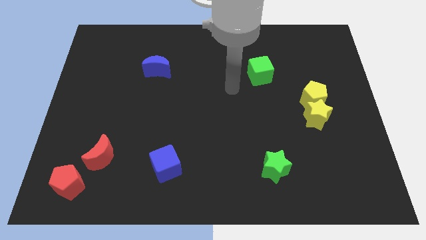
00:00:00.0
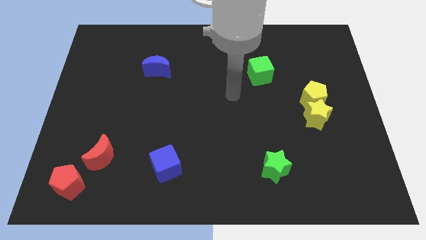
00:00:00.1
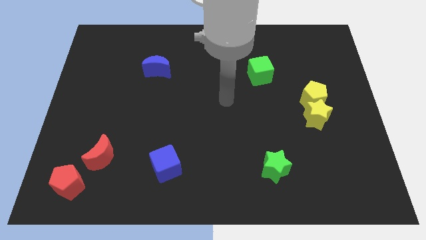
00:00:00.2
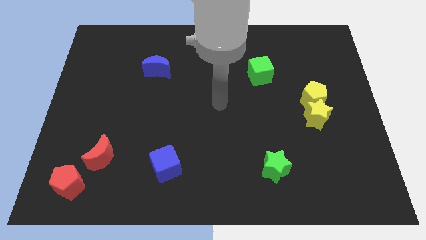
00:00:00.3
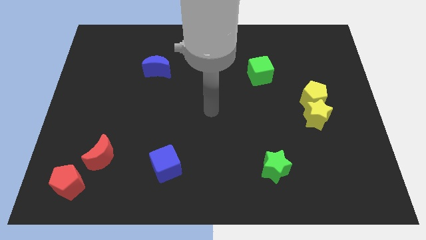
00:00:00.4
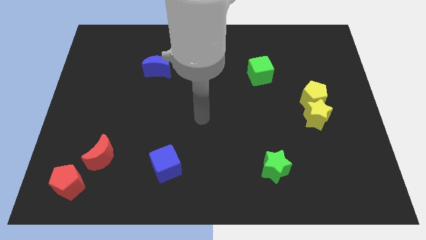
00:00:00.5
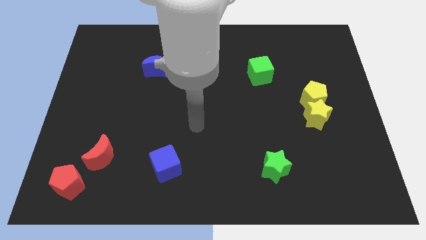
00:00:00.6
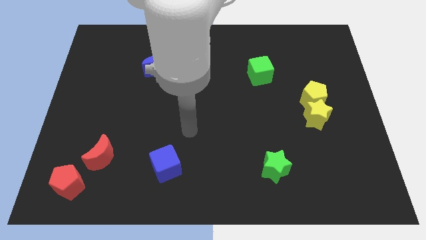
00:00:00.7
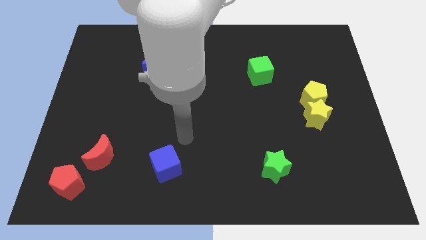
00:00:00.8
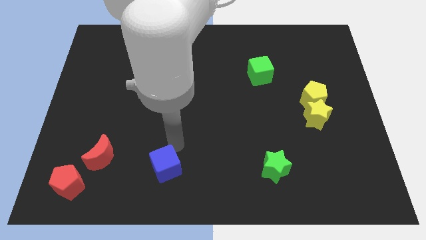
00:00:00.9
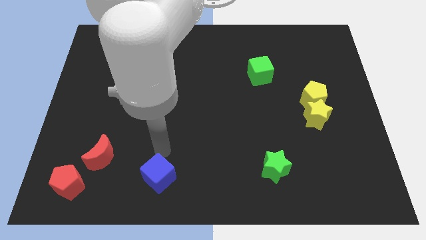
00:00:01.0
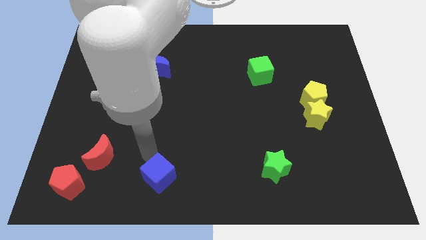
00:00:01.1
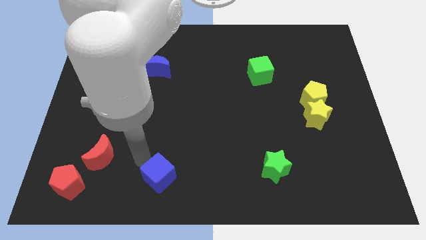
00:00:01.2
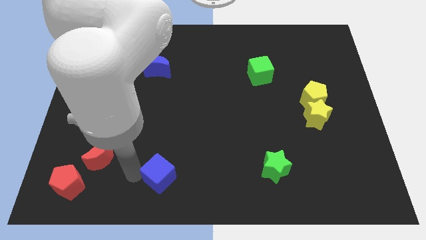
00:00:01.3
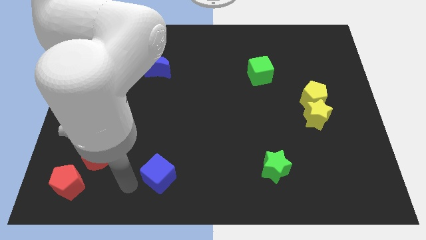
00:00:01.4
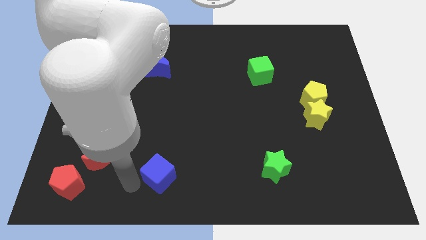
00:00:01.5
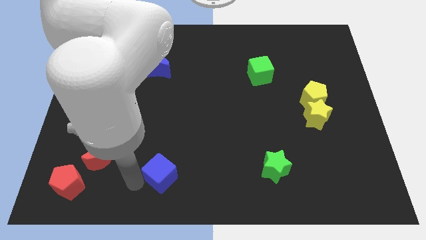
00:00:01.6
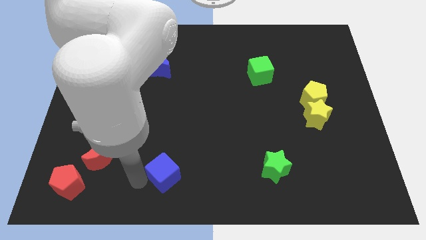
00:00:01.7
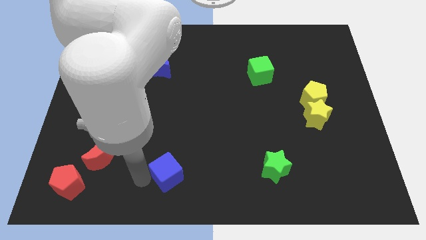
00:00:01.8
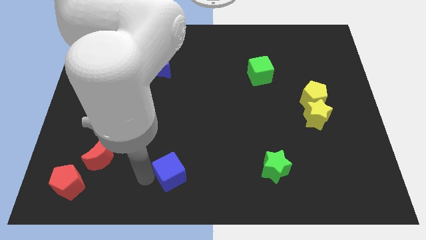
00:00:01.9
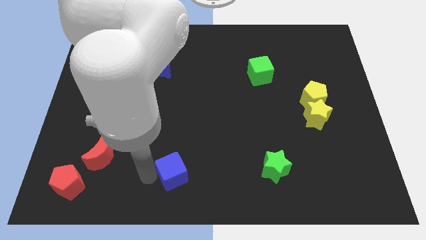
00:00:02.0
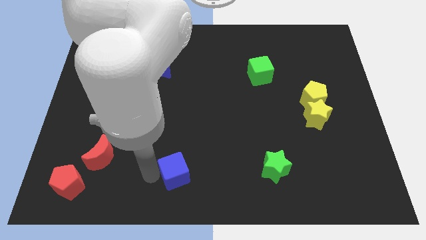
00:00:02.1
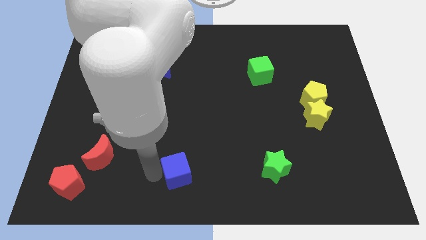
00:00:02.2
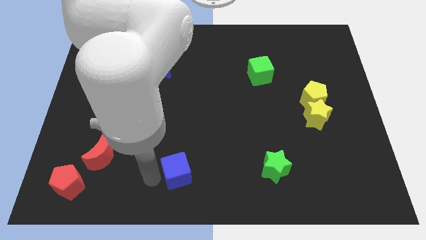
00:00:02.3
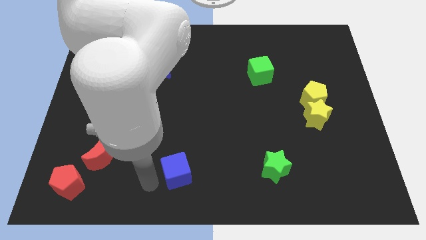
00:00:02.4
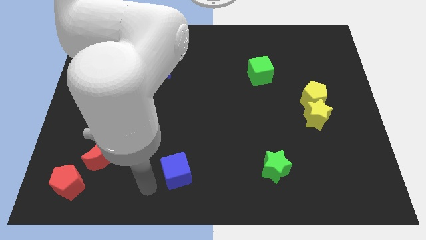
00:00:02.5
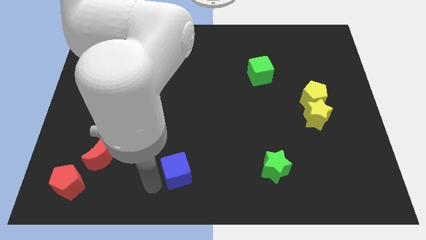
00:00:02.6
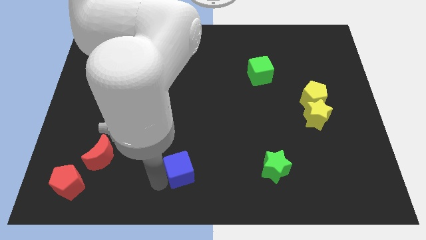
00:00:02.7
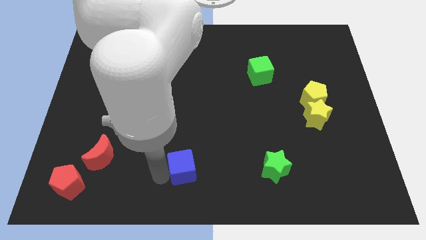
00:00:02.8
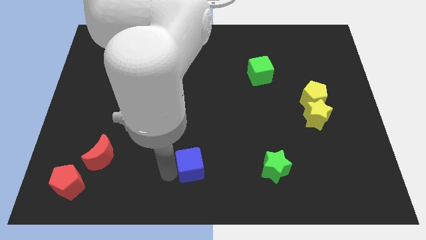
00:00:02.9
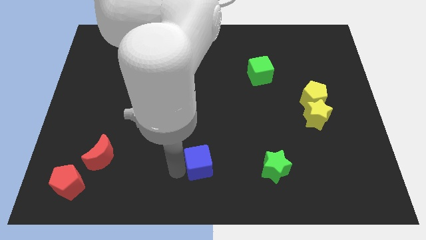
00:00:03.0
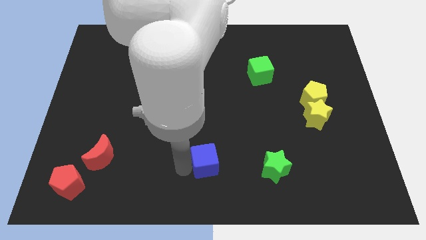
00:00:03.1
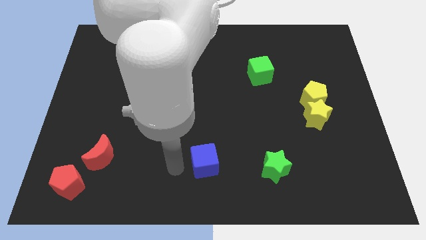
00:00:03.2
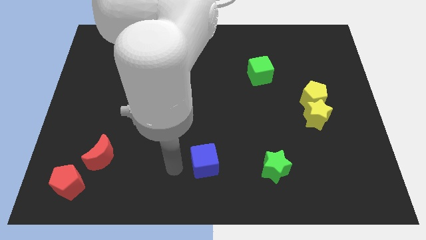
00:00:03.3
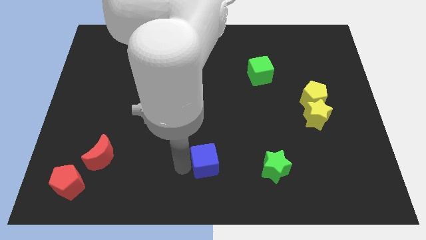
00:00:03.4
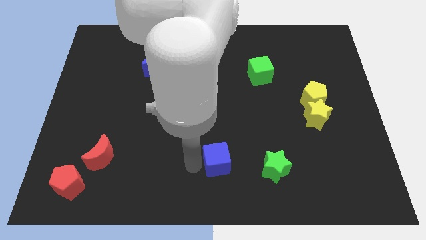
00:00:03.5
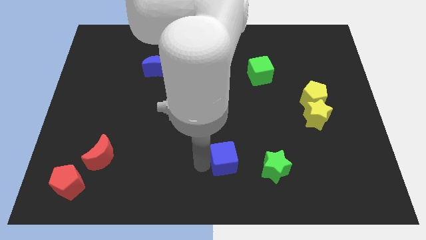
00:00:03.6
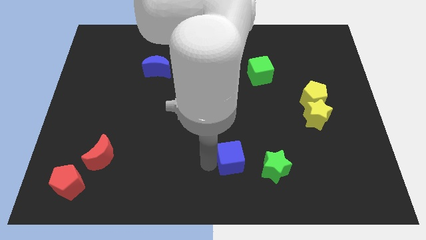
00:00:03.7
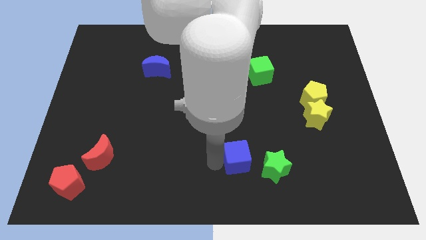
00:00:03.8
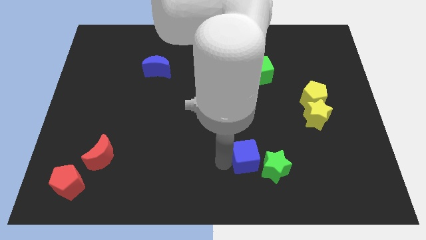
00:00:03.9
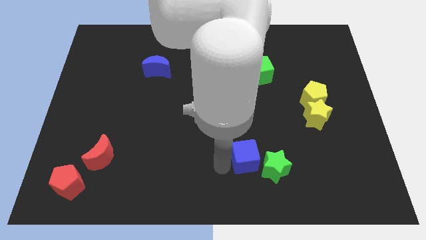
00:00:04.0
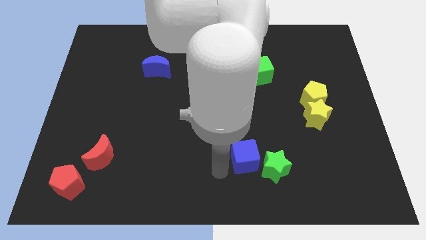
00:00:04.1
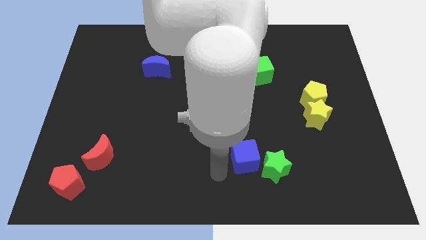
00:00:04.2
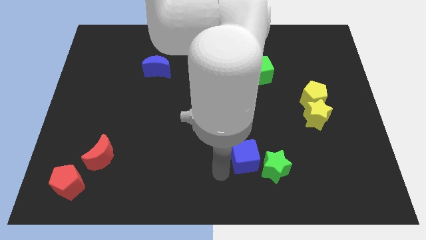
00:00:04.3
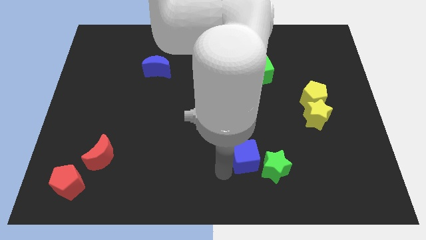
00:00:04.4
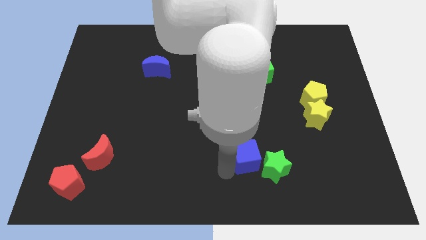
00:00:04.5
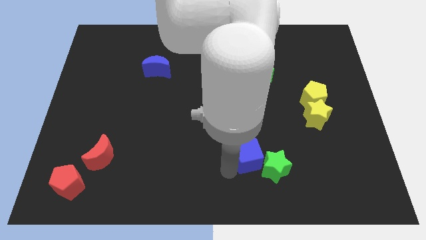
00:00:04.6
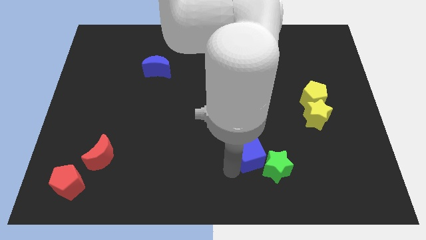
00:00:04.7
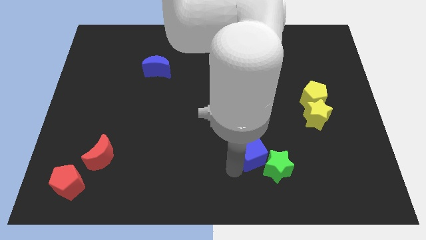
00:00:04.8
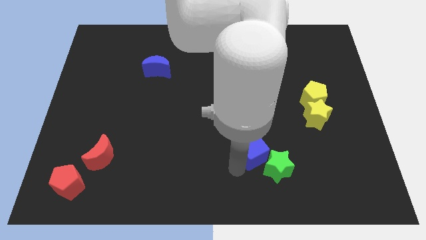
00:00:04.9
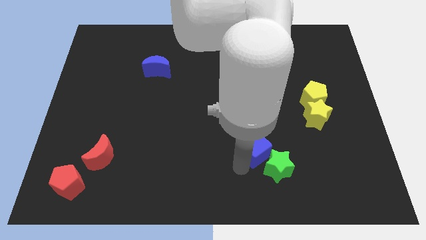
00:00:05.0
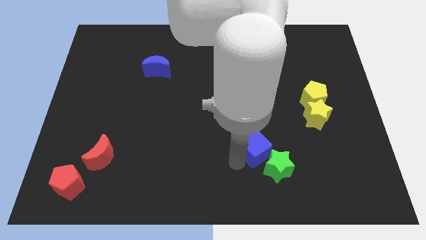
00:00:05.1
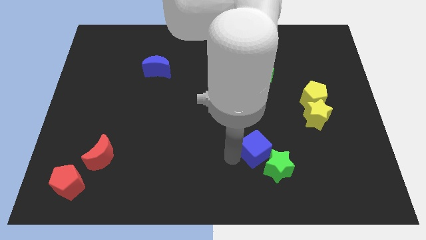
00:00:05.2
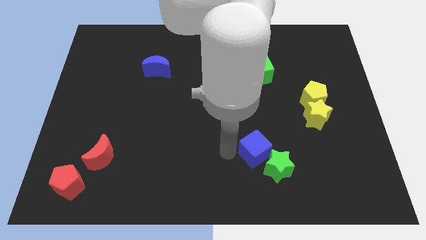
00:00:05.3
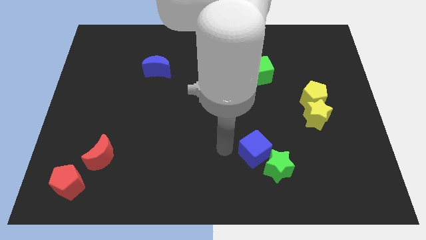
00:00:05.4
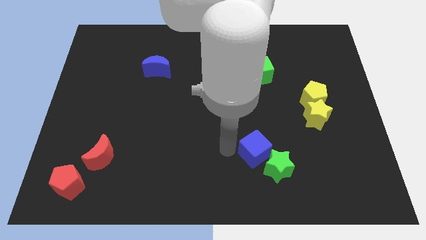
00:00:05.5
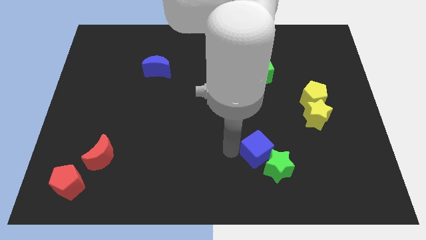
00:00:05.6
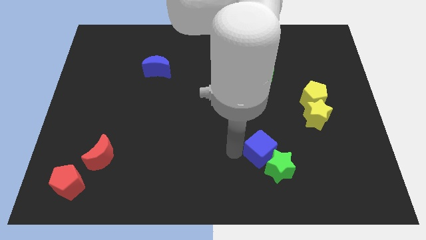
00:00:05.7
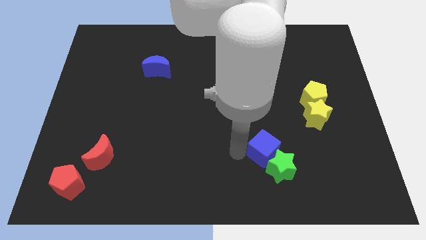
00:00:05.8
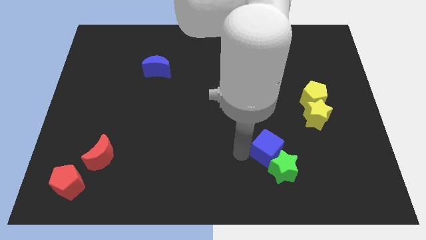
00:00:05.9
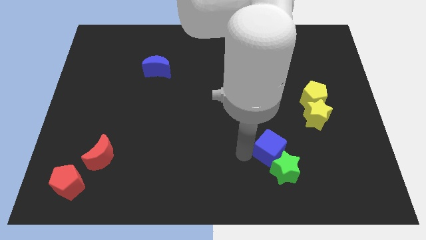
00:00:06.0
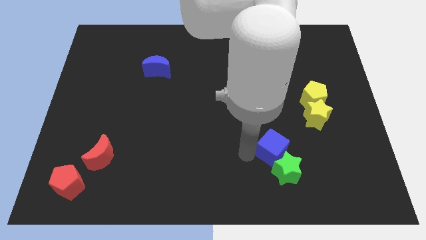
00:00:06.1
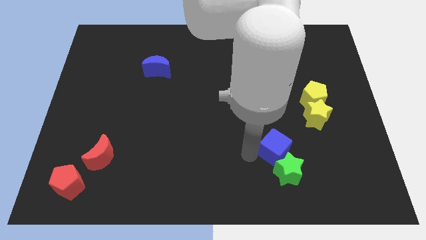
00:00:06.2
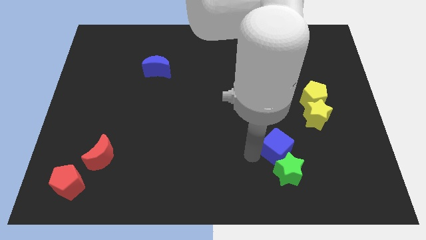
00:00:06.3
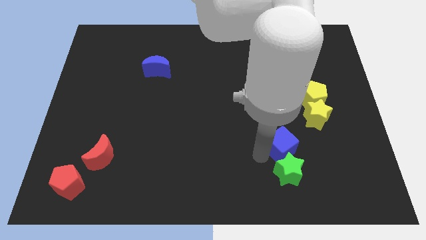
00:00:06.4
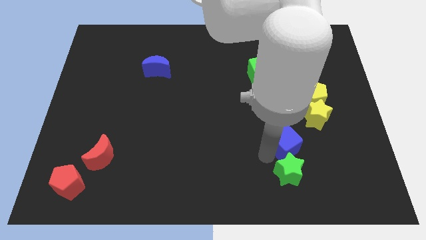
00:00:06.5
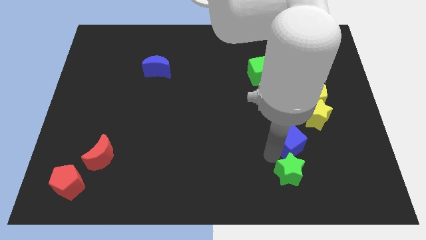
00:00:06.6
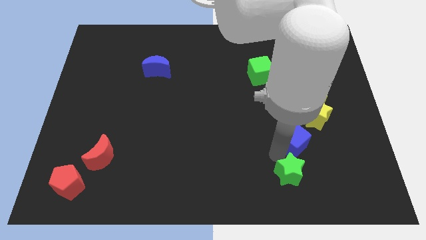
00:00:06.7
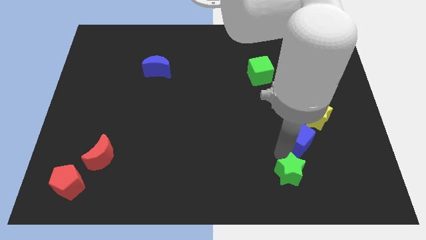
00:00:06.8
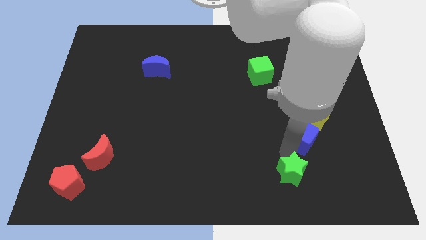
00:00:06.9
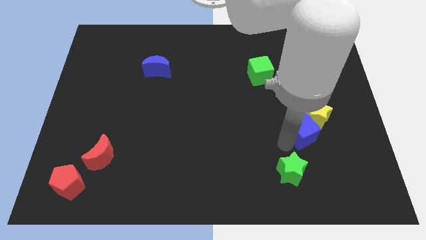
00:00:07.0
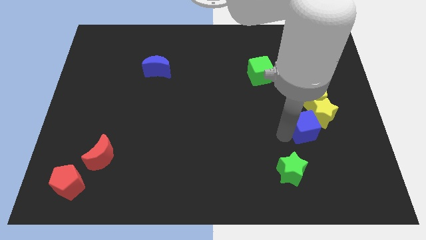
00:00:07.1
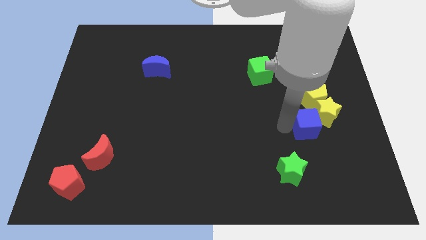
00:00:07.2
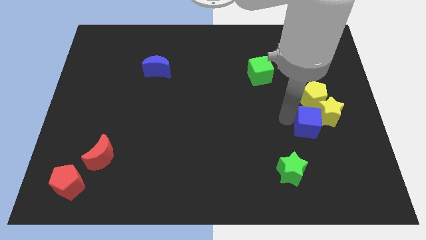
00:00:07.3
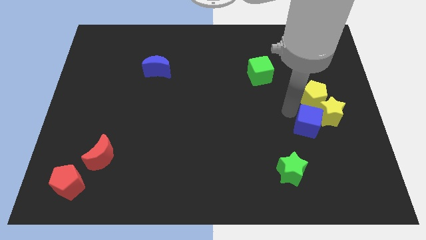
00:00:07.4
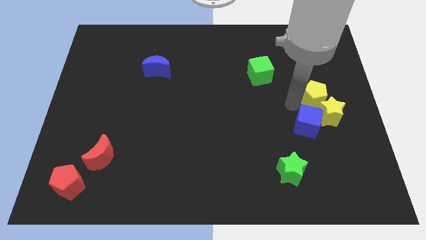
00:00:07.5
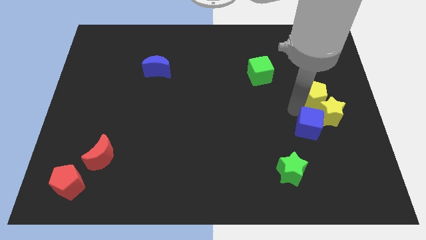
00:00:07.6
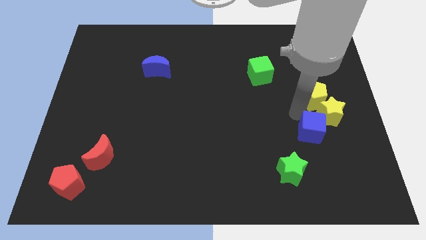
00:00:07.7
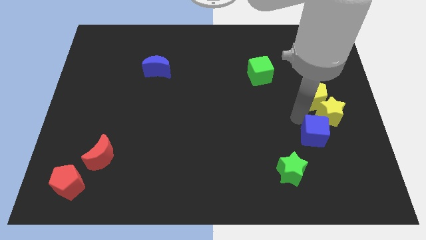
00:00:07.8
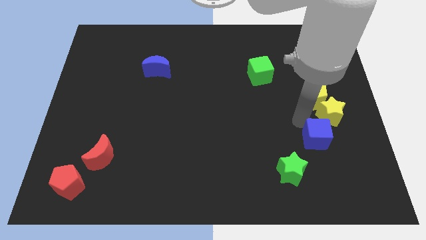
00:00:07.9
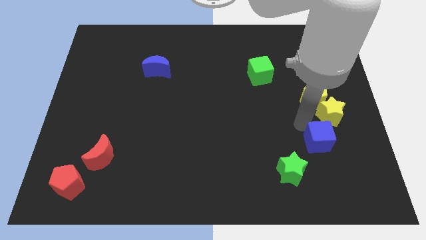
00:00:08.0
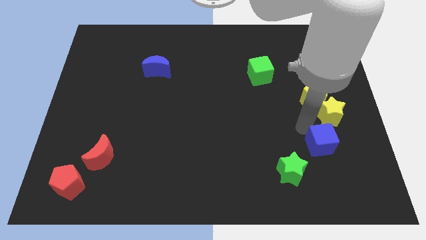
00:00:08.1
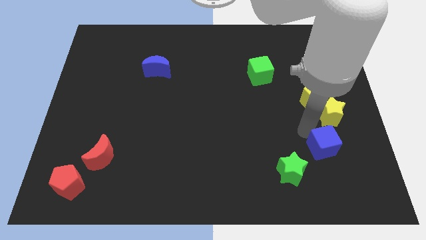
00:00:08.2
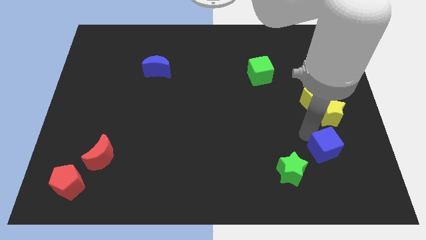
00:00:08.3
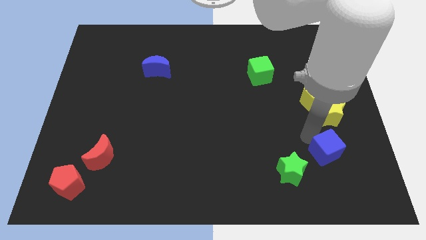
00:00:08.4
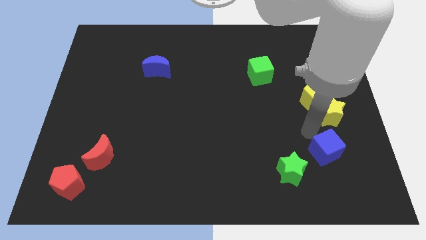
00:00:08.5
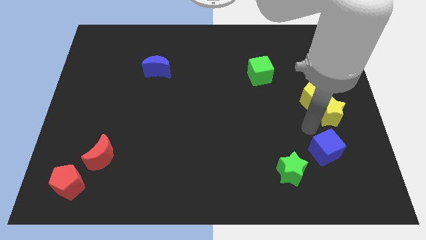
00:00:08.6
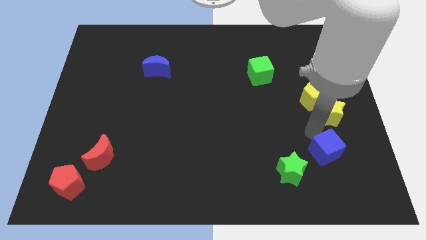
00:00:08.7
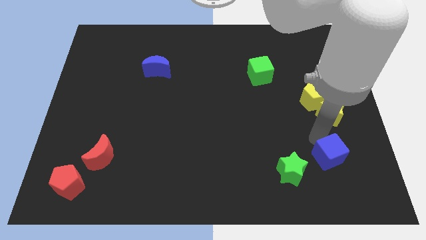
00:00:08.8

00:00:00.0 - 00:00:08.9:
put the blue cube to the right side of the green star
